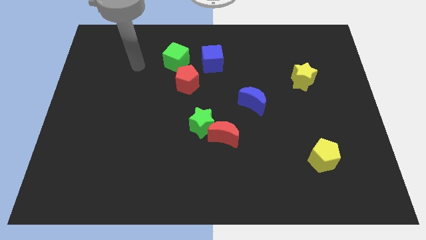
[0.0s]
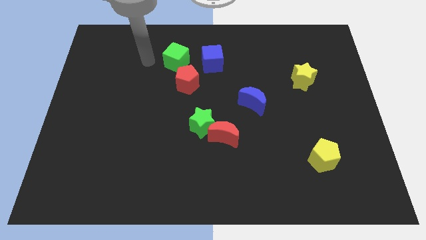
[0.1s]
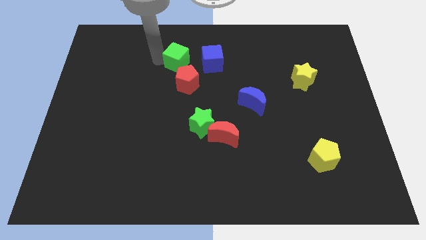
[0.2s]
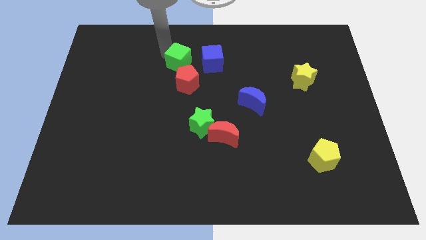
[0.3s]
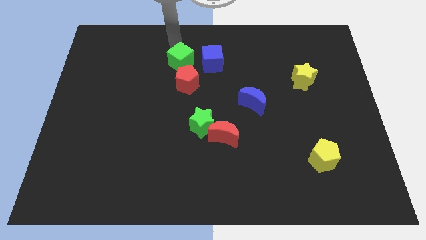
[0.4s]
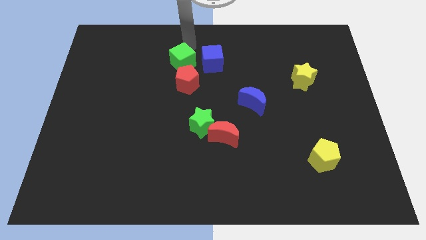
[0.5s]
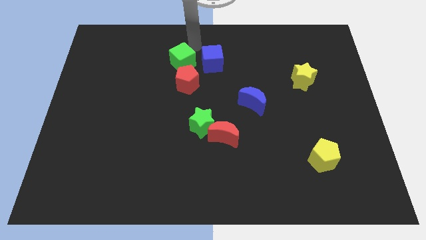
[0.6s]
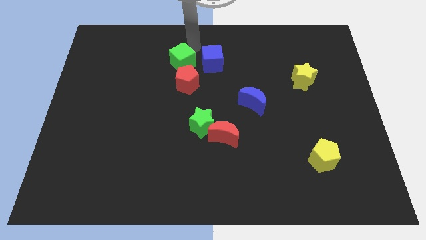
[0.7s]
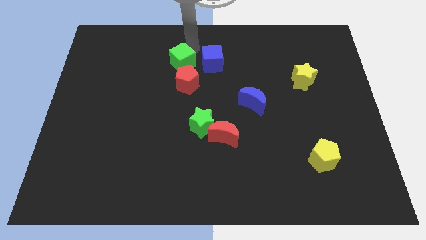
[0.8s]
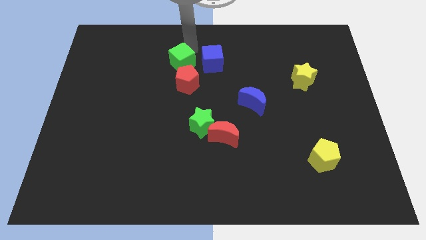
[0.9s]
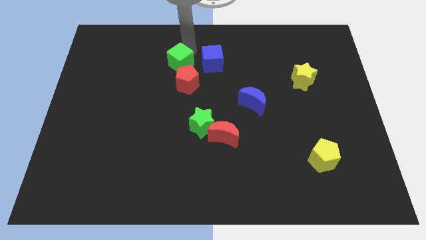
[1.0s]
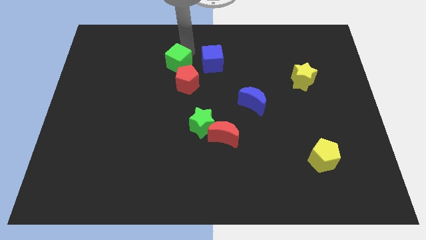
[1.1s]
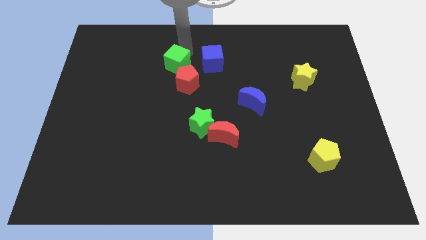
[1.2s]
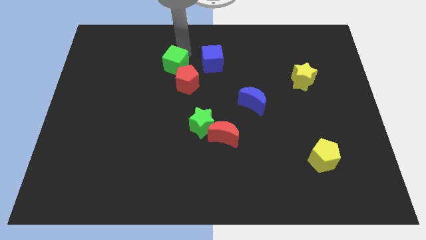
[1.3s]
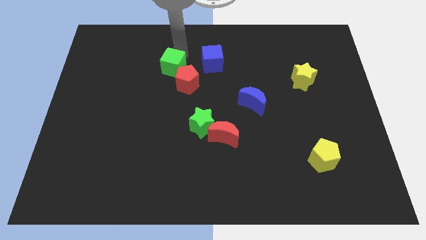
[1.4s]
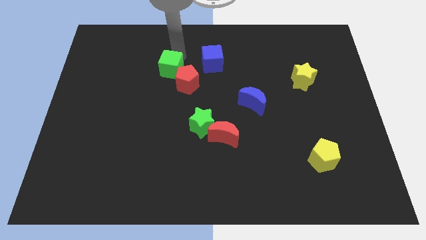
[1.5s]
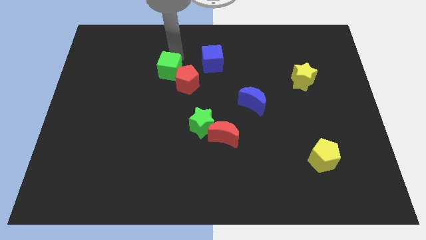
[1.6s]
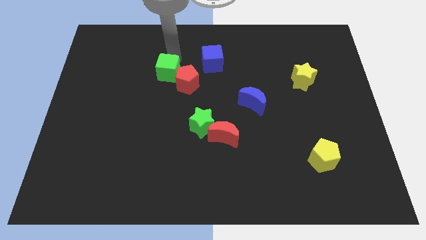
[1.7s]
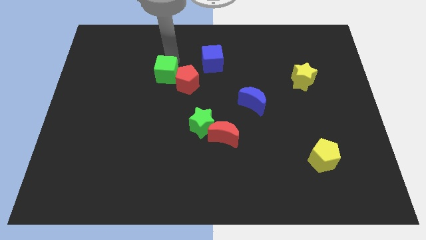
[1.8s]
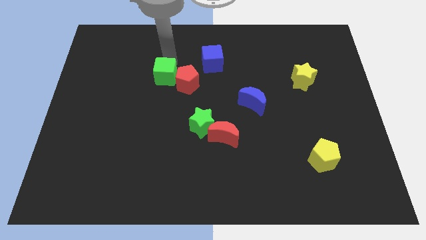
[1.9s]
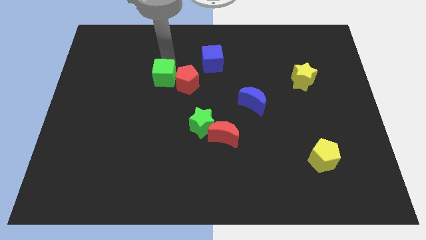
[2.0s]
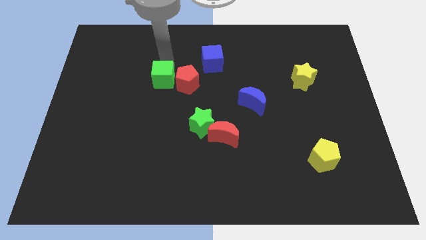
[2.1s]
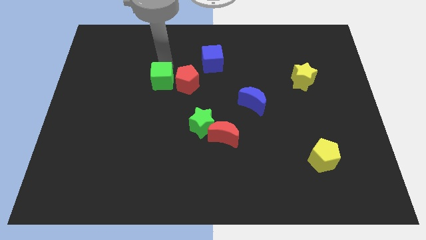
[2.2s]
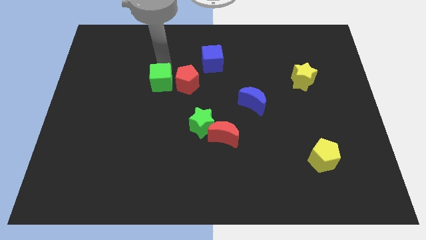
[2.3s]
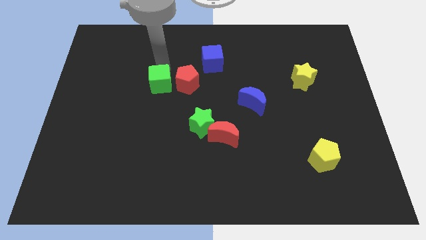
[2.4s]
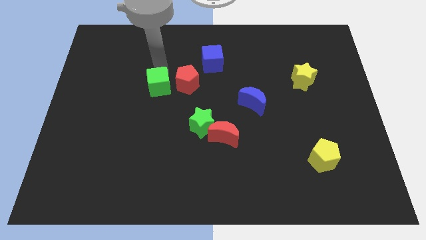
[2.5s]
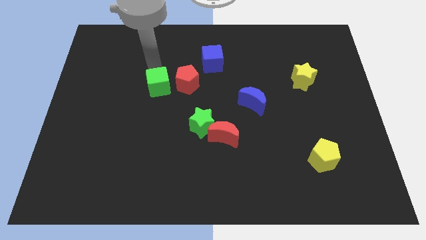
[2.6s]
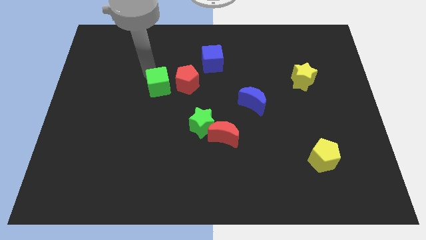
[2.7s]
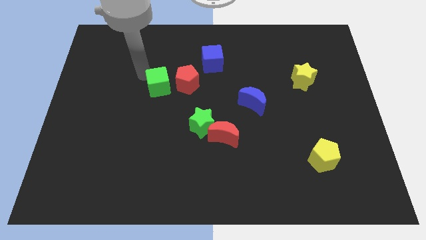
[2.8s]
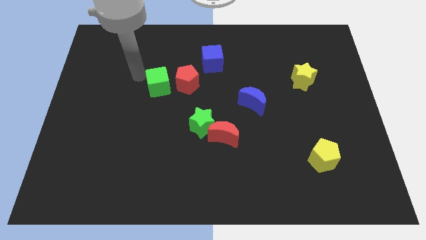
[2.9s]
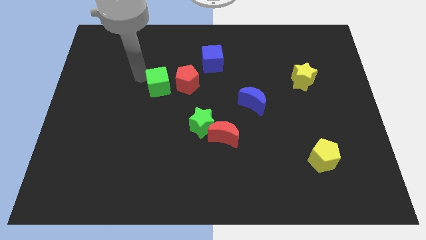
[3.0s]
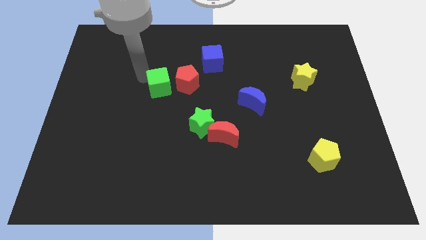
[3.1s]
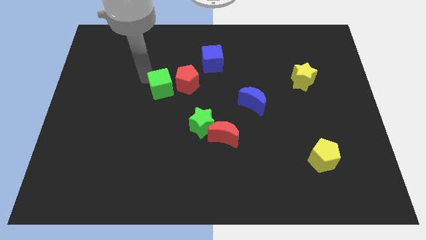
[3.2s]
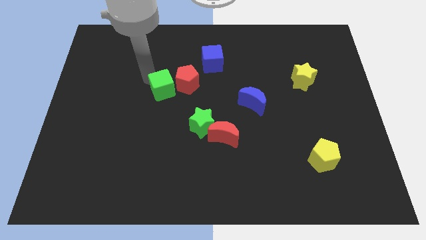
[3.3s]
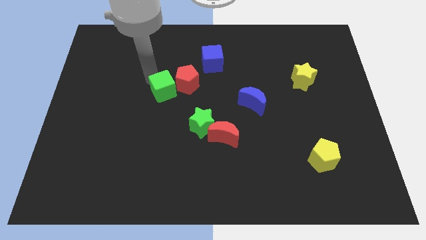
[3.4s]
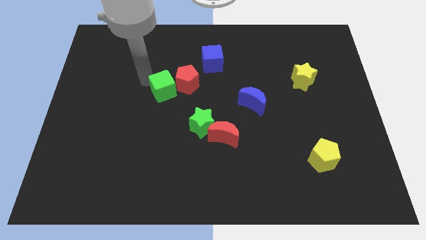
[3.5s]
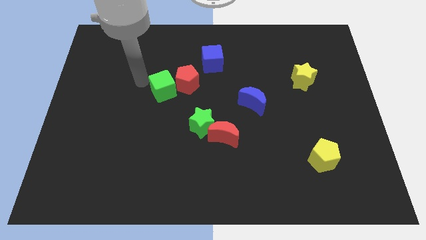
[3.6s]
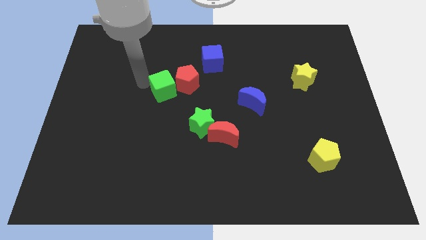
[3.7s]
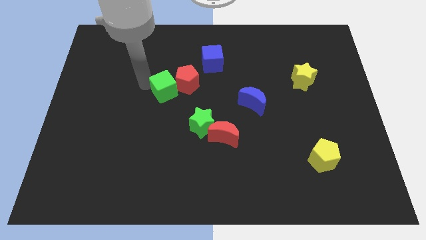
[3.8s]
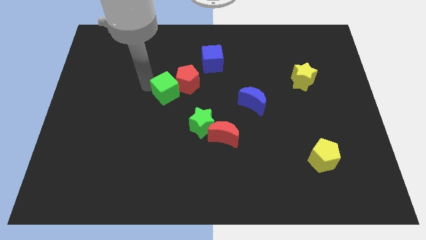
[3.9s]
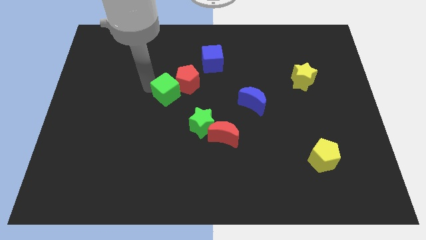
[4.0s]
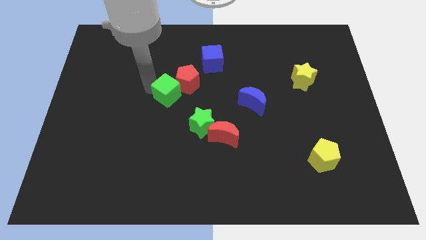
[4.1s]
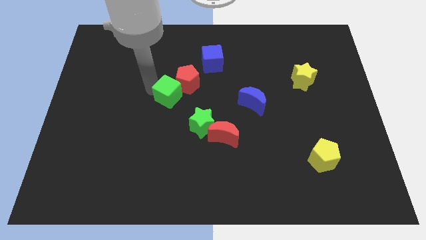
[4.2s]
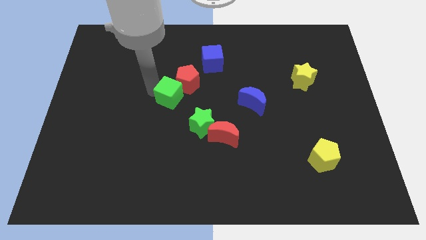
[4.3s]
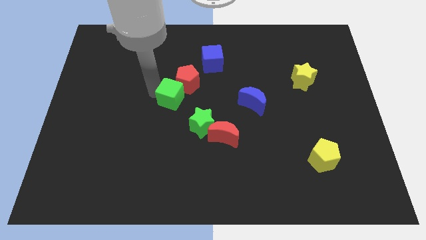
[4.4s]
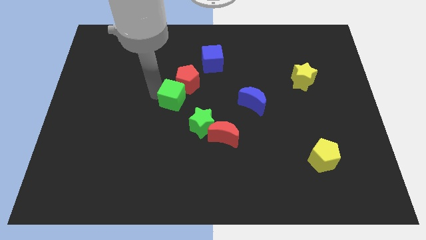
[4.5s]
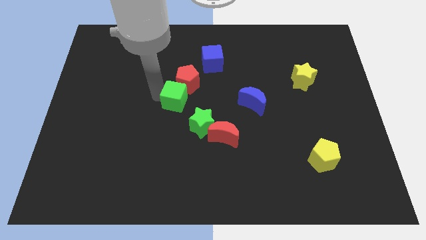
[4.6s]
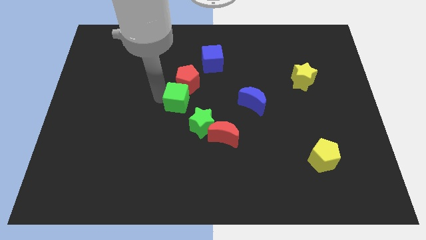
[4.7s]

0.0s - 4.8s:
slide the green cube a bit diagonally downwards and to the right

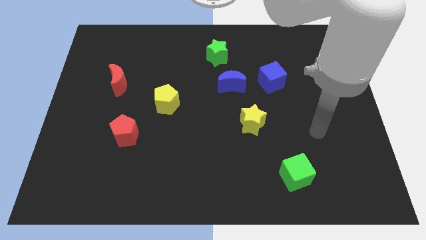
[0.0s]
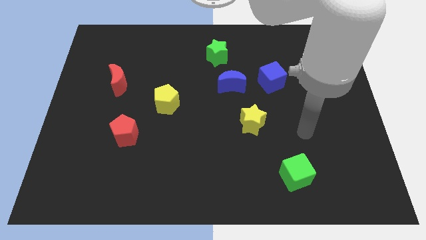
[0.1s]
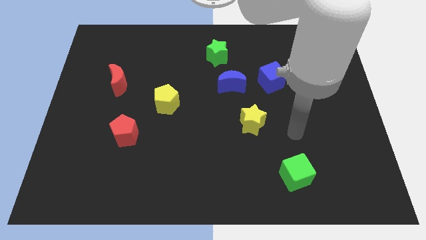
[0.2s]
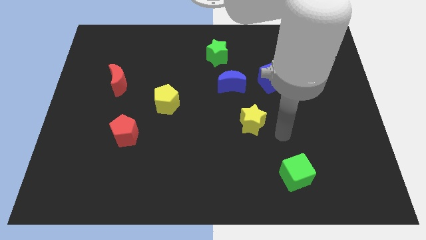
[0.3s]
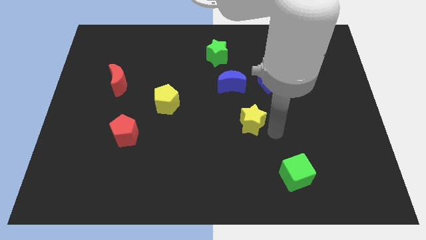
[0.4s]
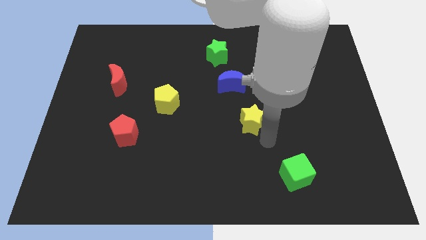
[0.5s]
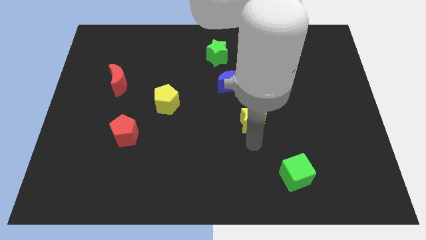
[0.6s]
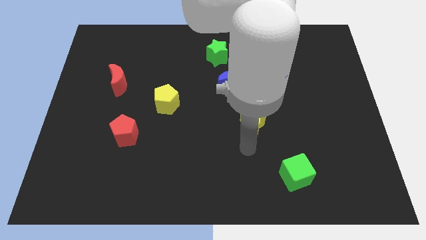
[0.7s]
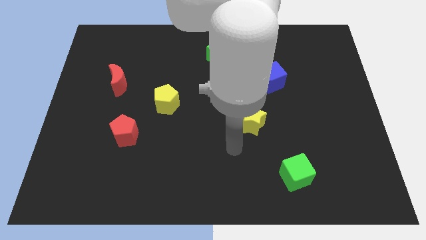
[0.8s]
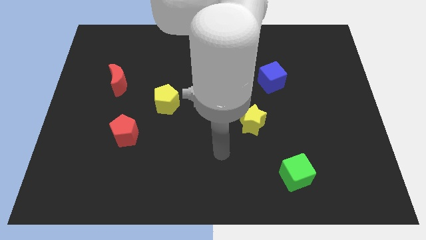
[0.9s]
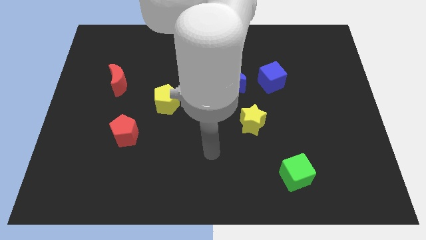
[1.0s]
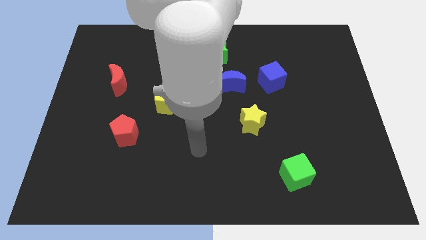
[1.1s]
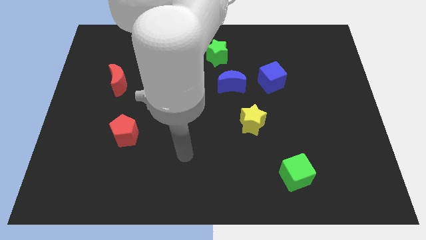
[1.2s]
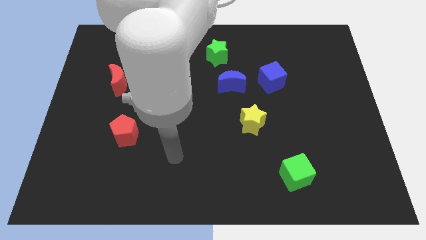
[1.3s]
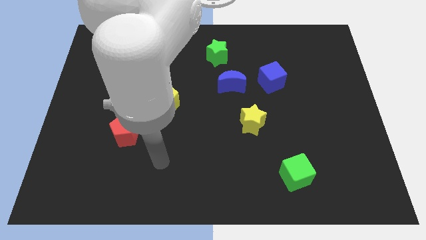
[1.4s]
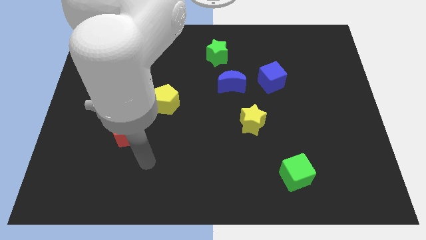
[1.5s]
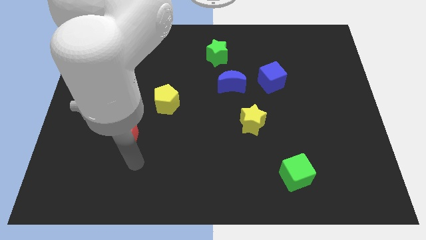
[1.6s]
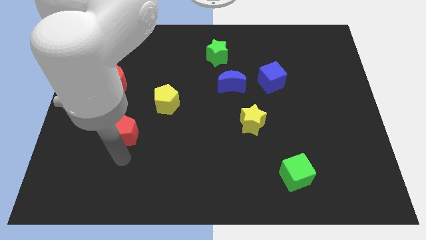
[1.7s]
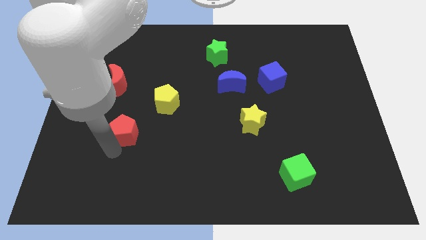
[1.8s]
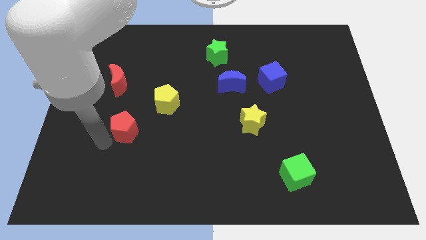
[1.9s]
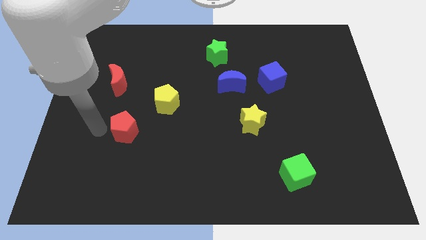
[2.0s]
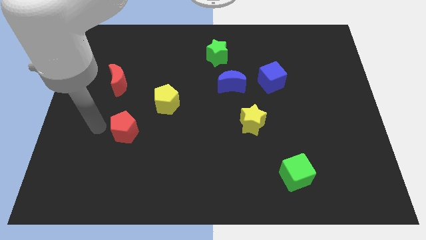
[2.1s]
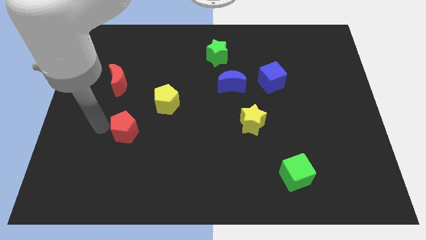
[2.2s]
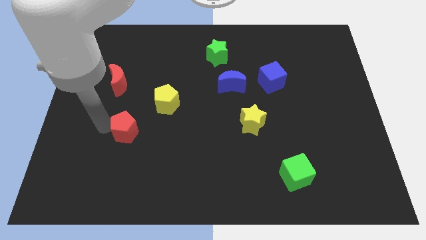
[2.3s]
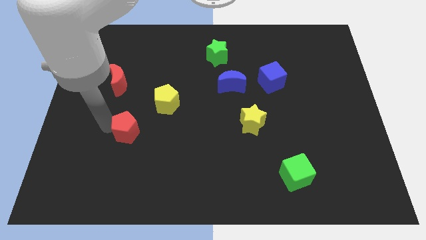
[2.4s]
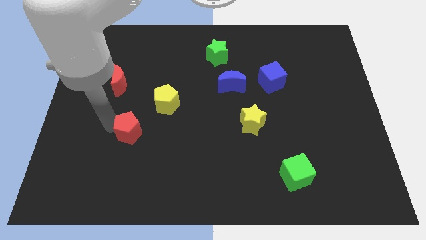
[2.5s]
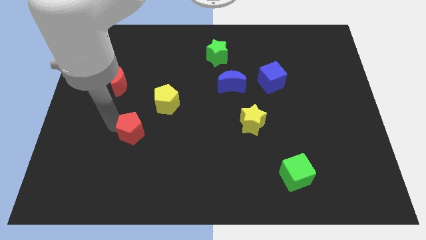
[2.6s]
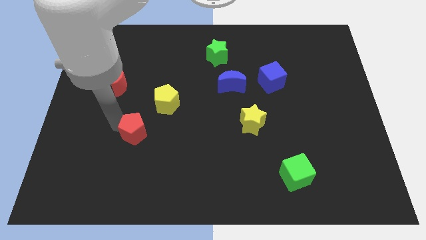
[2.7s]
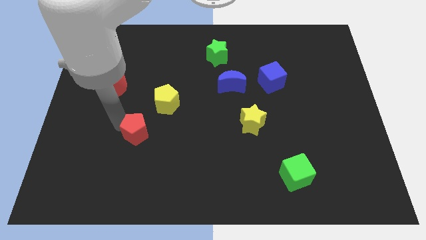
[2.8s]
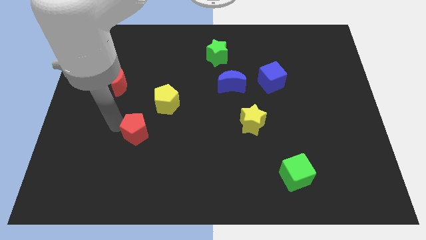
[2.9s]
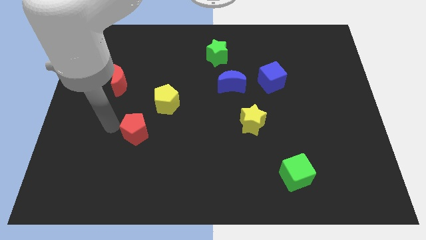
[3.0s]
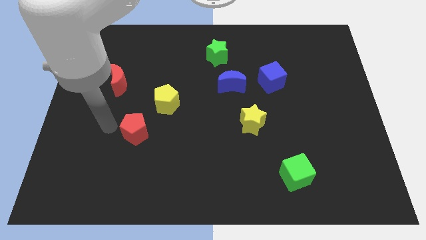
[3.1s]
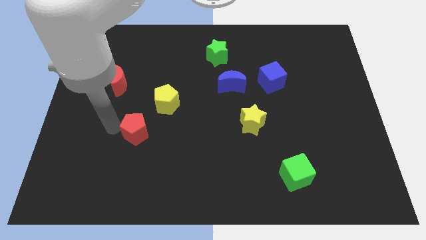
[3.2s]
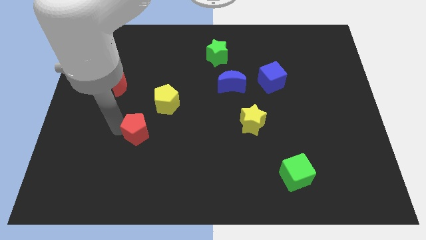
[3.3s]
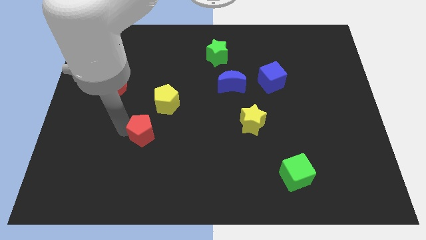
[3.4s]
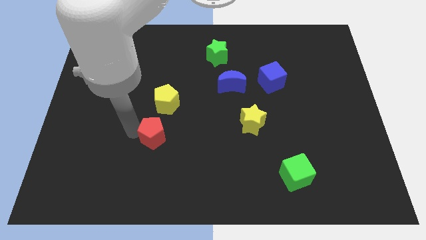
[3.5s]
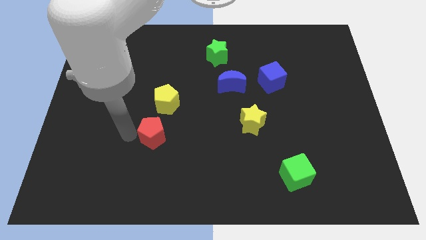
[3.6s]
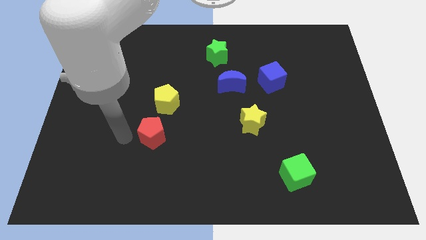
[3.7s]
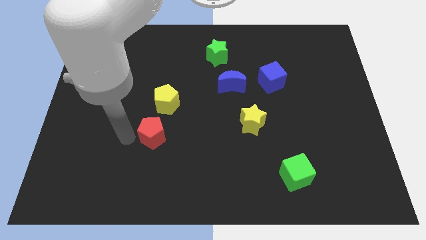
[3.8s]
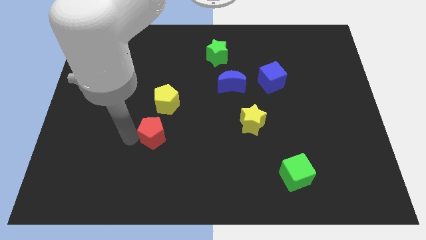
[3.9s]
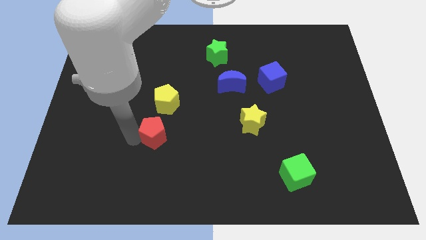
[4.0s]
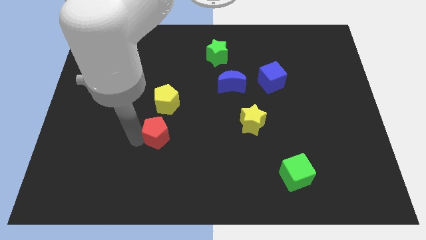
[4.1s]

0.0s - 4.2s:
push the red pentagon slightly to the right
